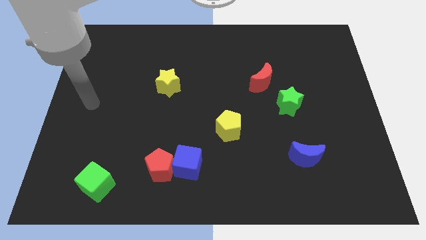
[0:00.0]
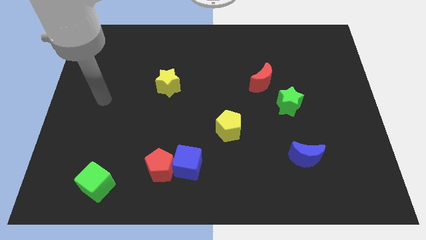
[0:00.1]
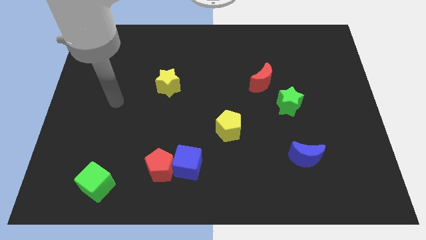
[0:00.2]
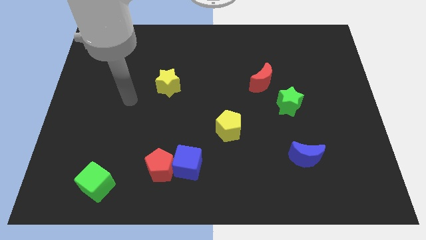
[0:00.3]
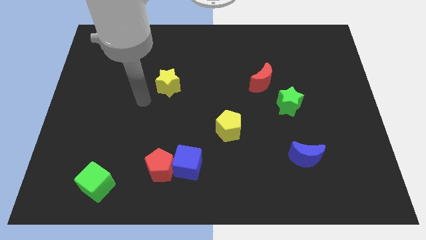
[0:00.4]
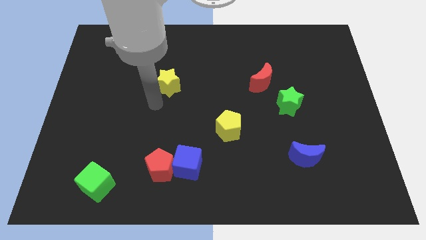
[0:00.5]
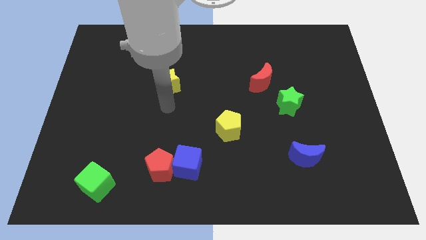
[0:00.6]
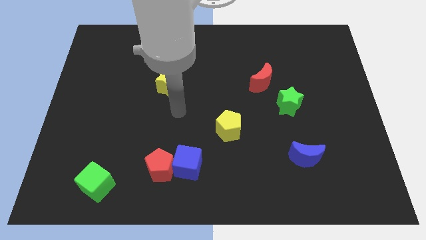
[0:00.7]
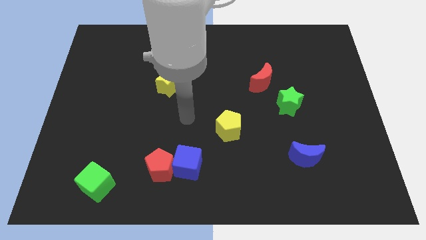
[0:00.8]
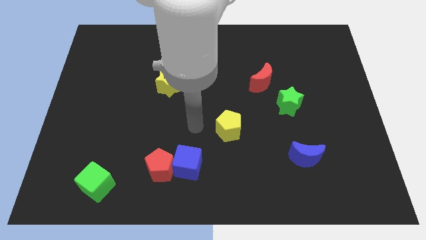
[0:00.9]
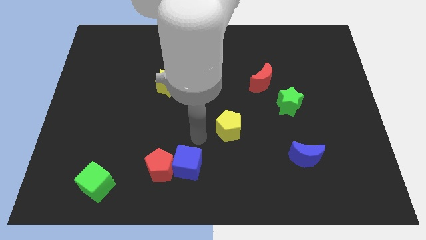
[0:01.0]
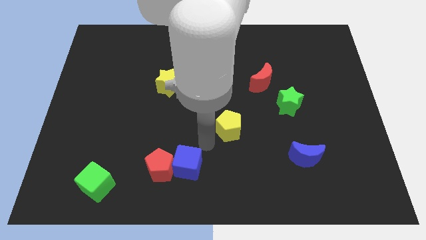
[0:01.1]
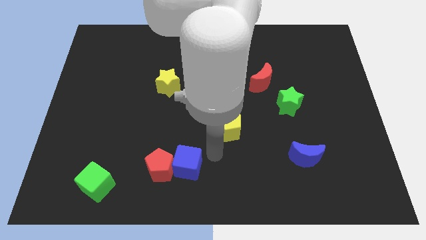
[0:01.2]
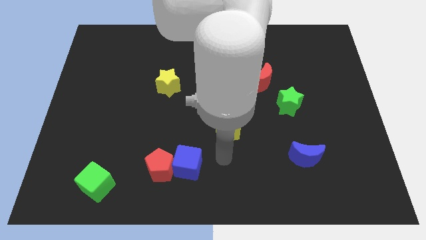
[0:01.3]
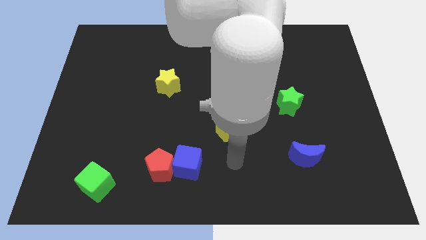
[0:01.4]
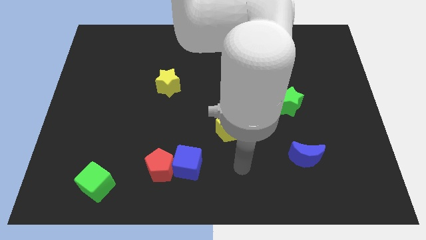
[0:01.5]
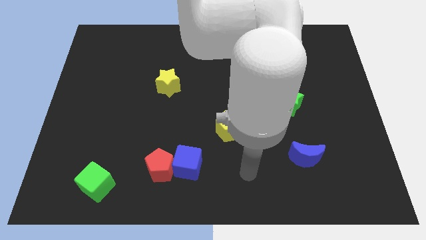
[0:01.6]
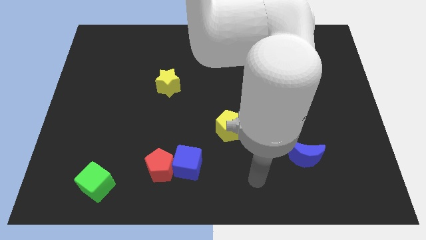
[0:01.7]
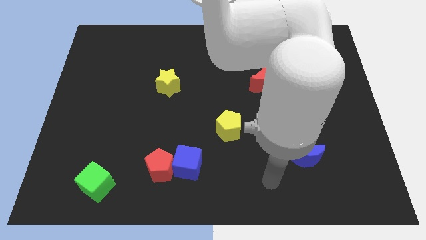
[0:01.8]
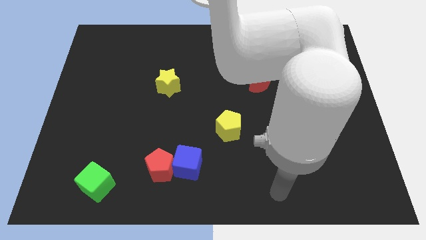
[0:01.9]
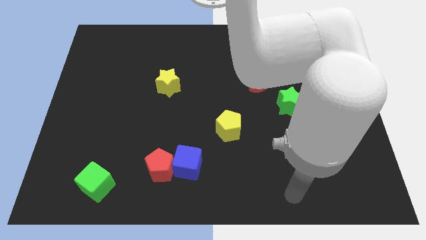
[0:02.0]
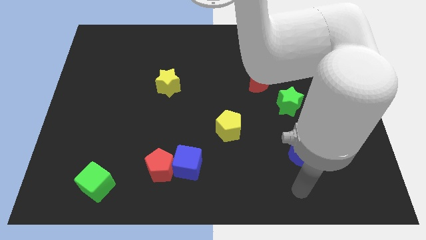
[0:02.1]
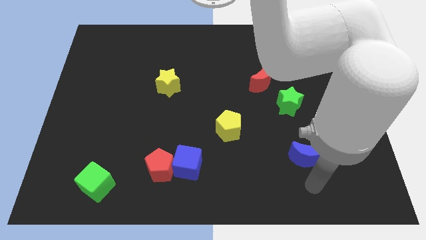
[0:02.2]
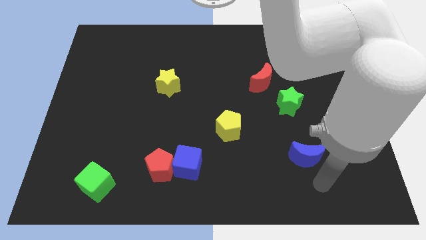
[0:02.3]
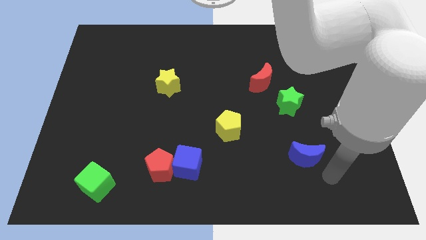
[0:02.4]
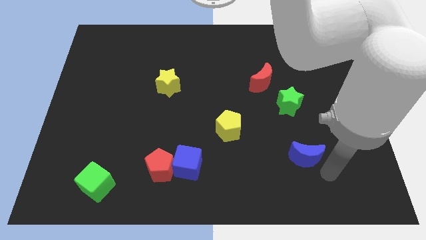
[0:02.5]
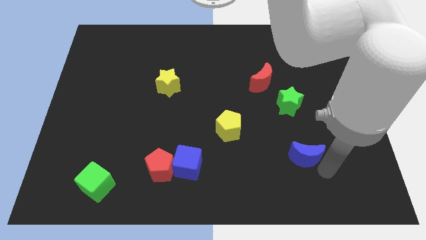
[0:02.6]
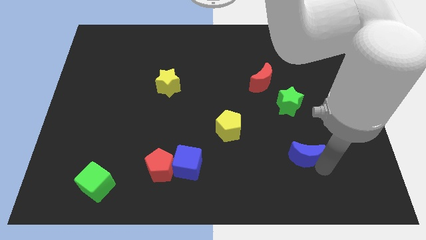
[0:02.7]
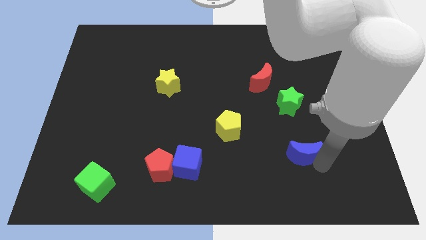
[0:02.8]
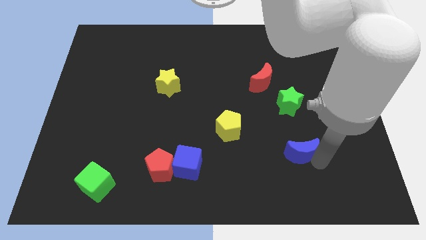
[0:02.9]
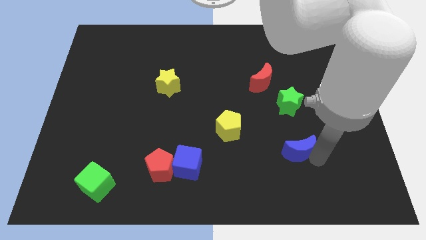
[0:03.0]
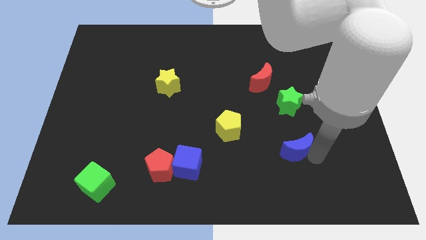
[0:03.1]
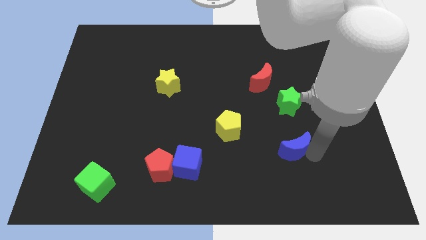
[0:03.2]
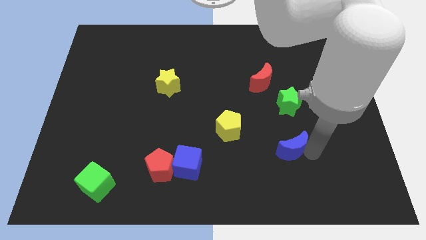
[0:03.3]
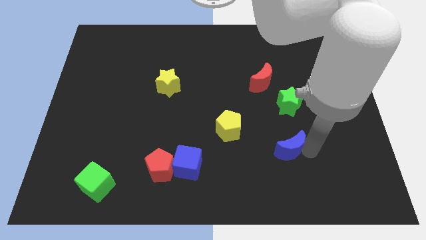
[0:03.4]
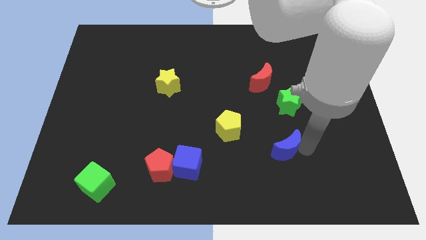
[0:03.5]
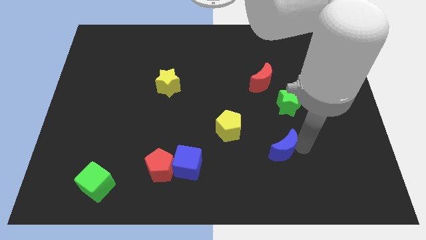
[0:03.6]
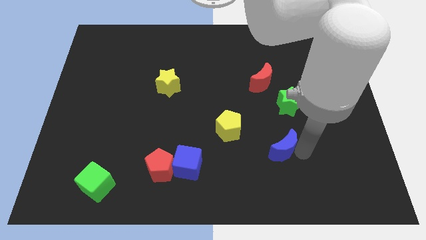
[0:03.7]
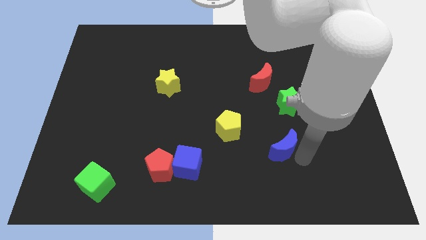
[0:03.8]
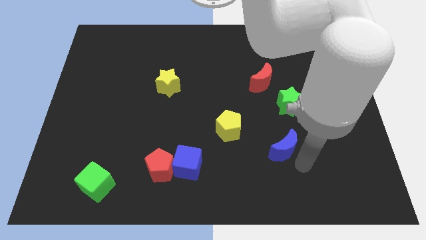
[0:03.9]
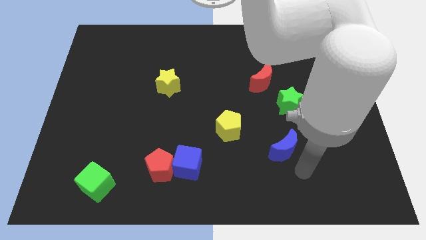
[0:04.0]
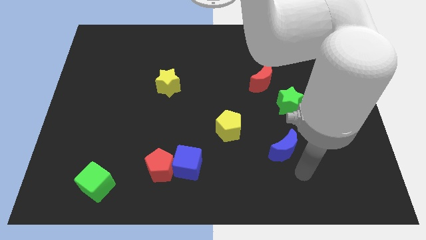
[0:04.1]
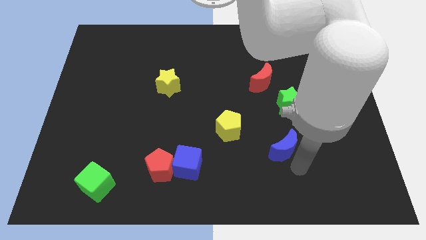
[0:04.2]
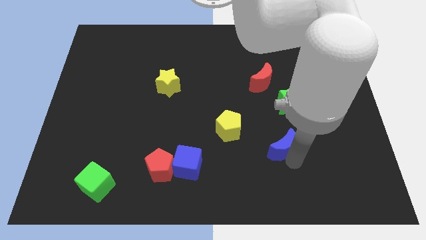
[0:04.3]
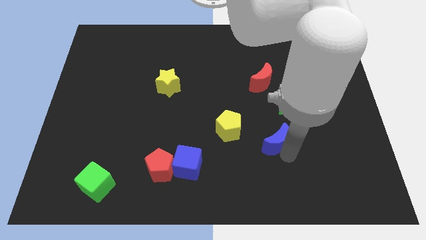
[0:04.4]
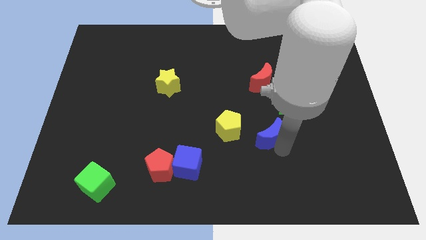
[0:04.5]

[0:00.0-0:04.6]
slide the blue moon diagonally upwards and to the left slightly

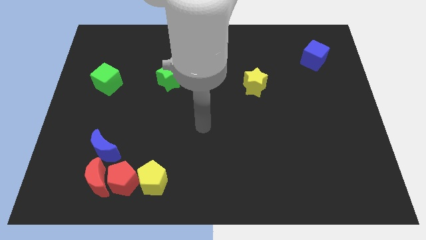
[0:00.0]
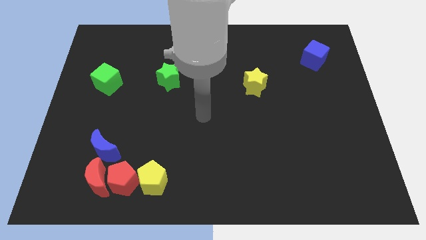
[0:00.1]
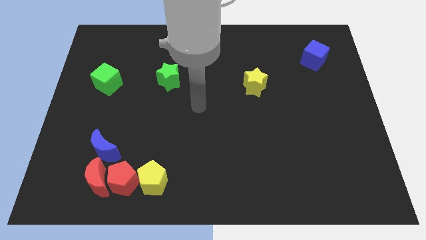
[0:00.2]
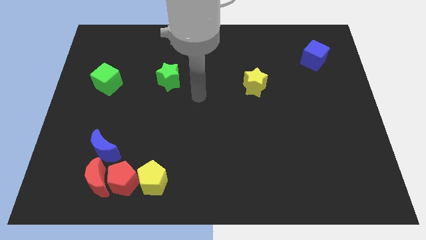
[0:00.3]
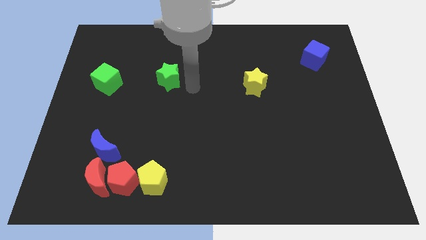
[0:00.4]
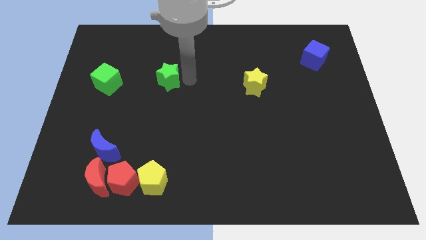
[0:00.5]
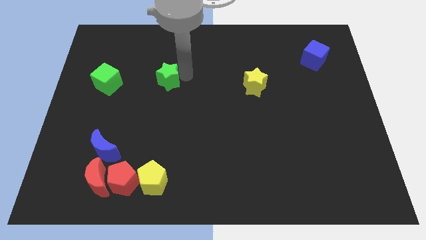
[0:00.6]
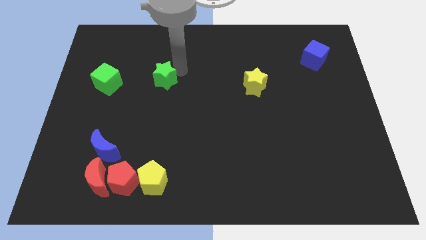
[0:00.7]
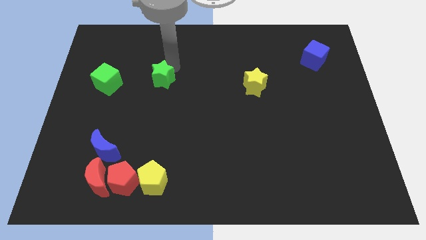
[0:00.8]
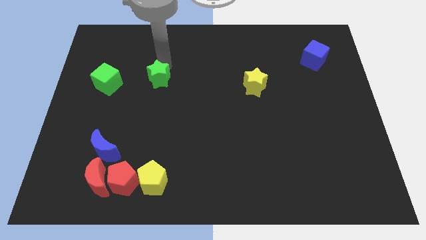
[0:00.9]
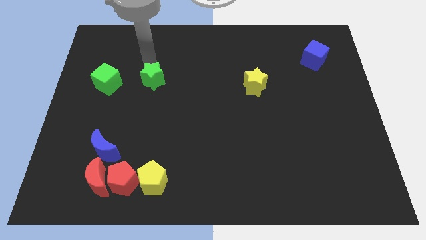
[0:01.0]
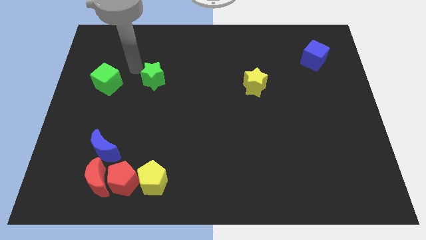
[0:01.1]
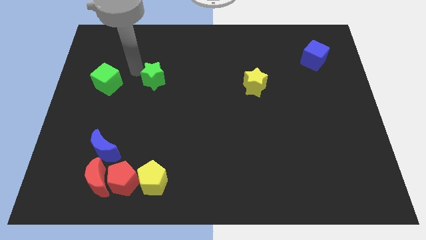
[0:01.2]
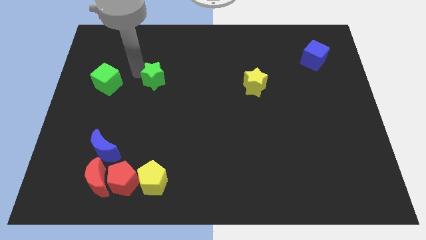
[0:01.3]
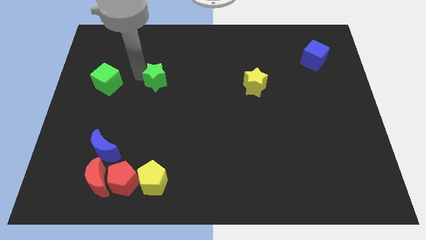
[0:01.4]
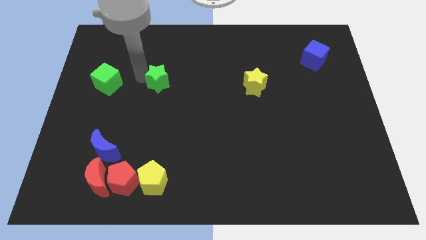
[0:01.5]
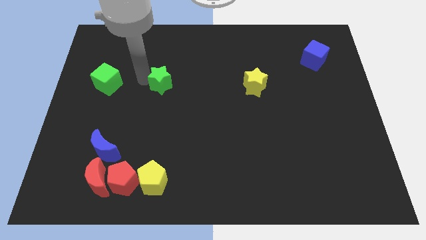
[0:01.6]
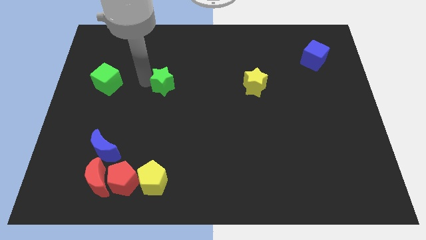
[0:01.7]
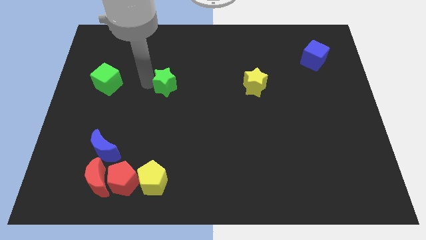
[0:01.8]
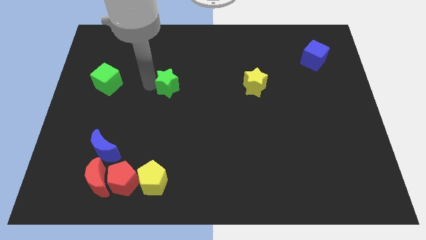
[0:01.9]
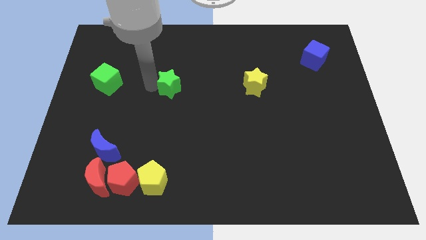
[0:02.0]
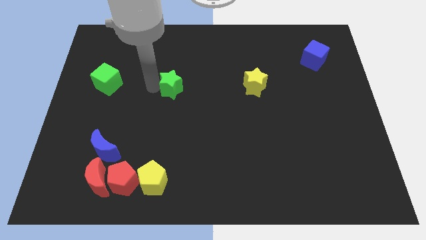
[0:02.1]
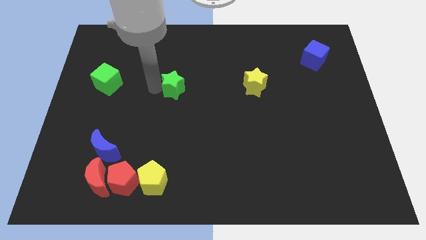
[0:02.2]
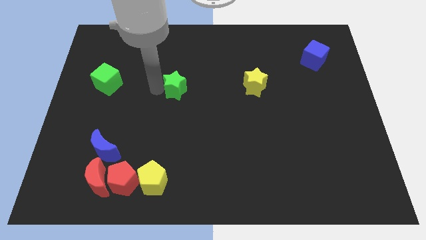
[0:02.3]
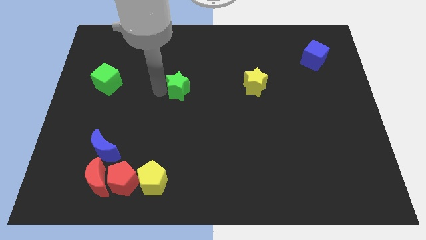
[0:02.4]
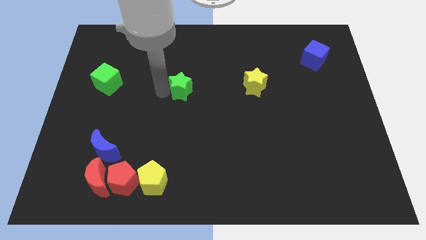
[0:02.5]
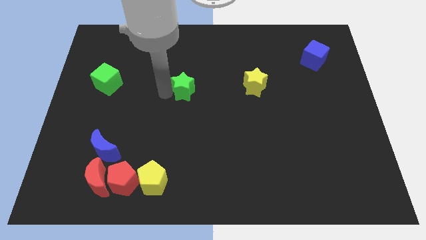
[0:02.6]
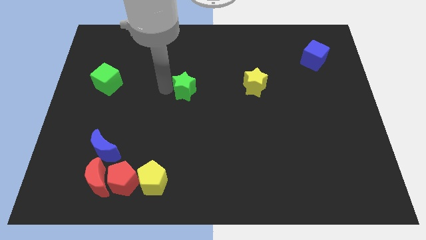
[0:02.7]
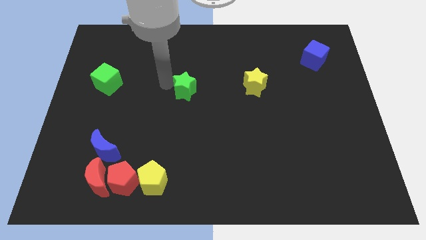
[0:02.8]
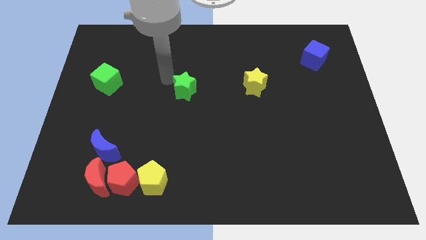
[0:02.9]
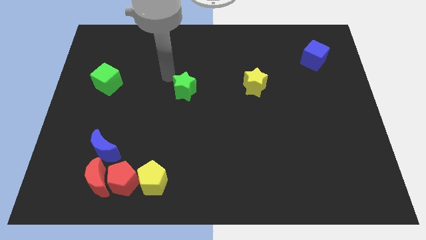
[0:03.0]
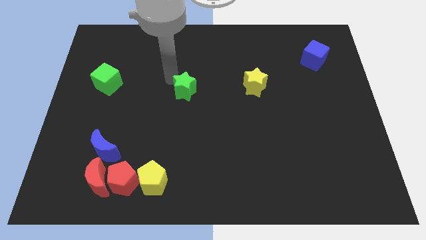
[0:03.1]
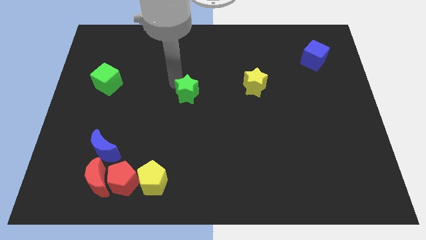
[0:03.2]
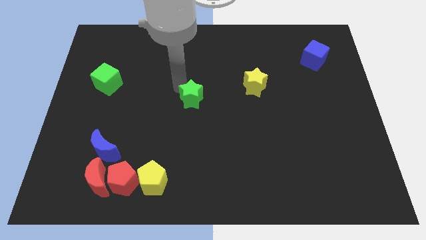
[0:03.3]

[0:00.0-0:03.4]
slide the green star down and right a little
